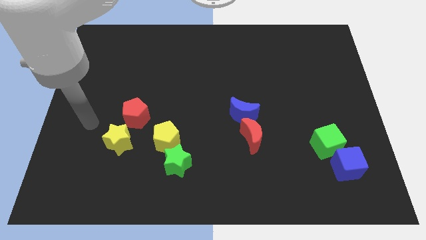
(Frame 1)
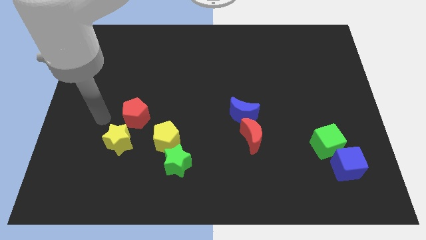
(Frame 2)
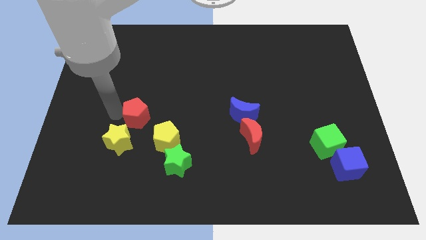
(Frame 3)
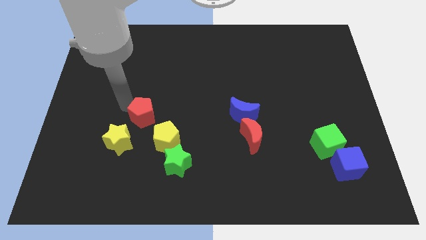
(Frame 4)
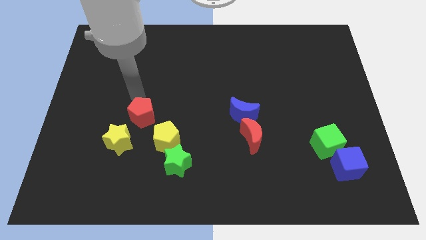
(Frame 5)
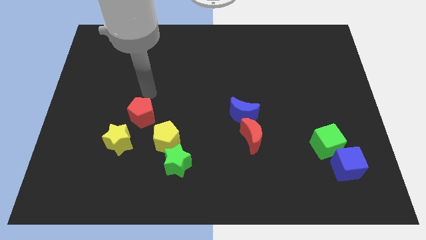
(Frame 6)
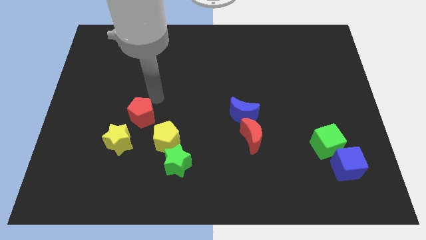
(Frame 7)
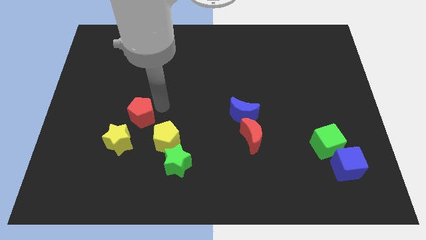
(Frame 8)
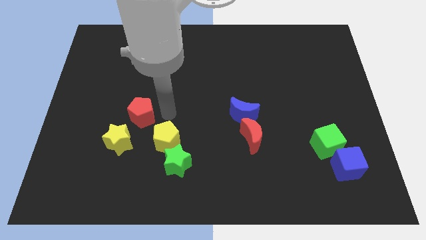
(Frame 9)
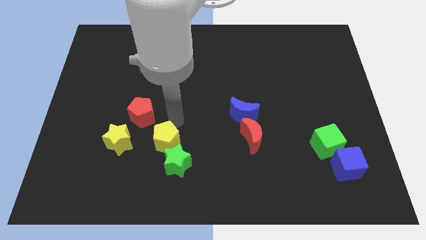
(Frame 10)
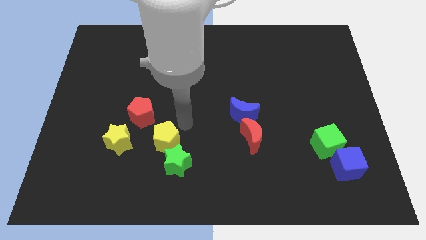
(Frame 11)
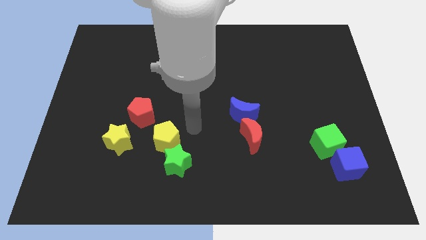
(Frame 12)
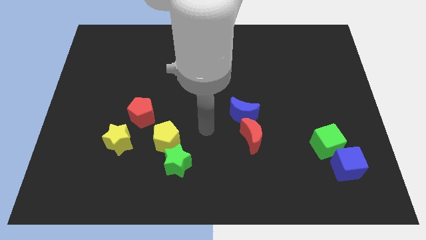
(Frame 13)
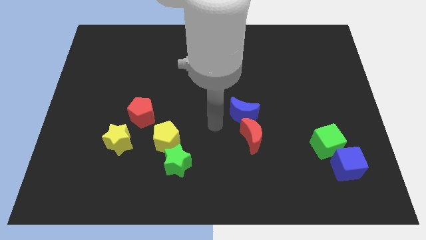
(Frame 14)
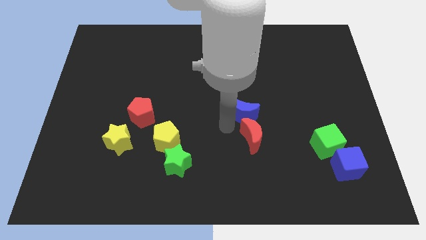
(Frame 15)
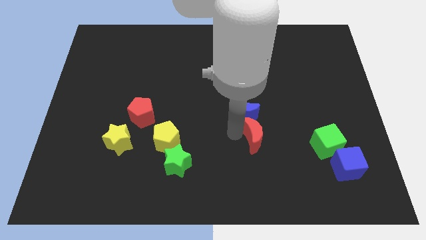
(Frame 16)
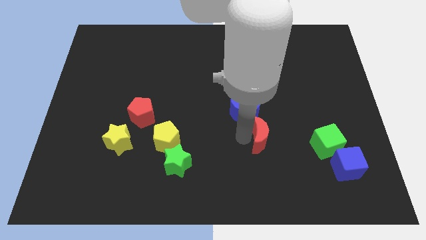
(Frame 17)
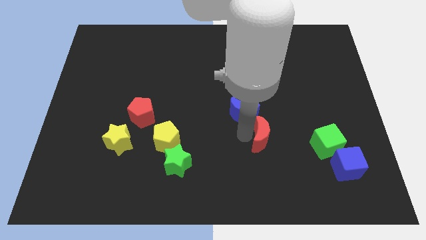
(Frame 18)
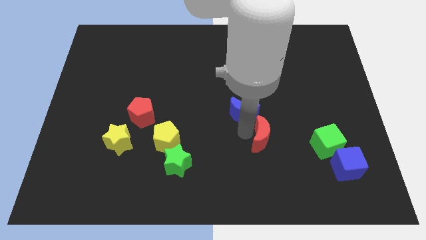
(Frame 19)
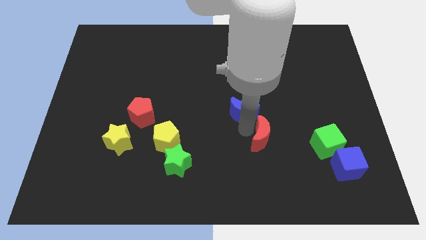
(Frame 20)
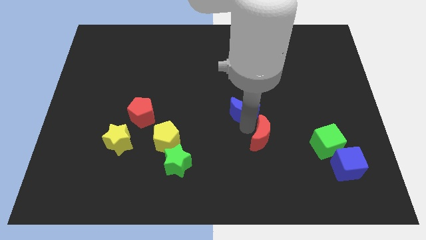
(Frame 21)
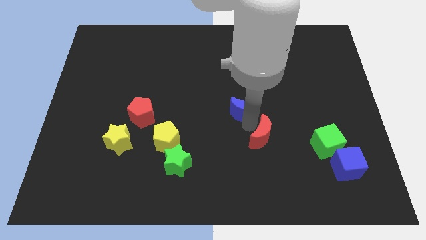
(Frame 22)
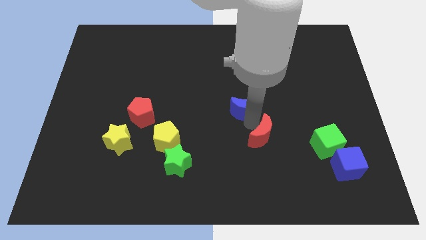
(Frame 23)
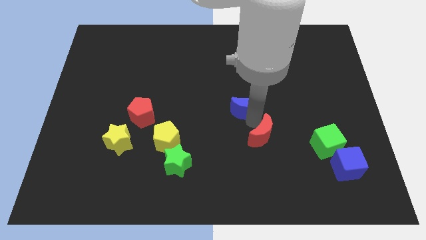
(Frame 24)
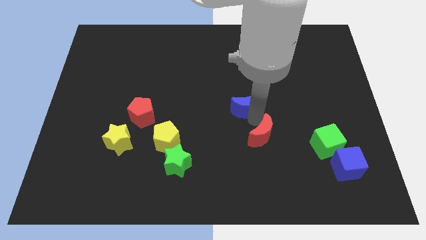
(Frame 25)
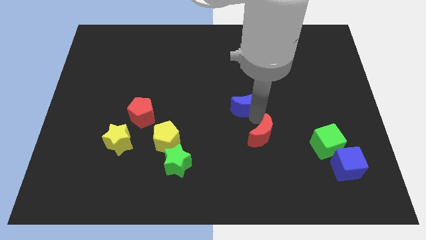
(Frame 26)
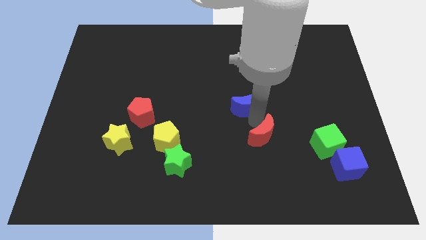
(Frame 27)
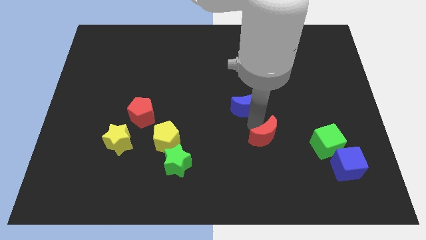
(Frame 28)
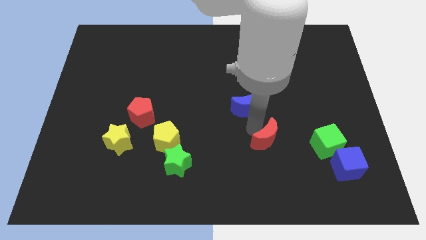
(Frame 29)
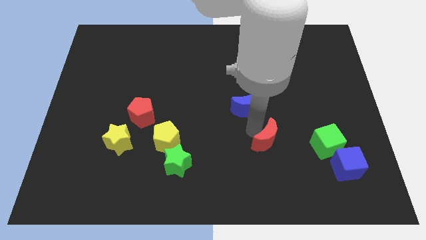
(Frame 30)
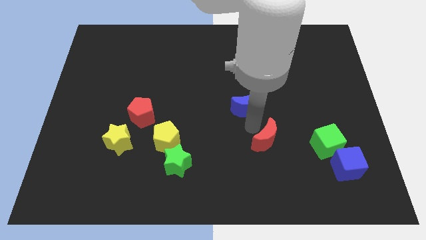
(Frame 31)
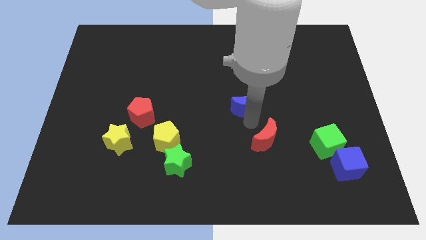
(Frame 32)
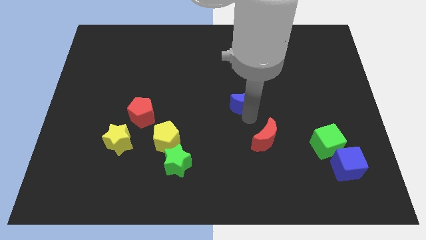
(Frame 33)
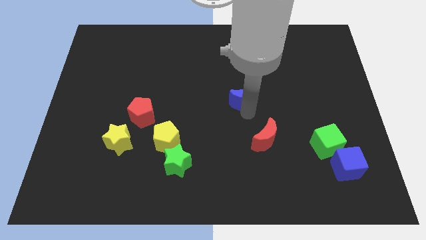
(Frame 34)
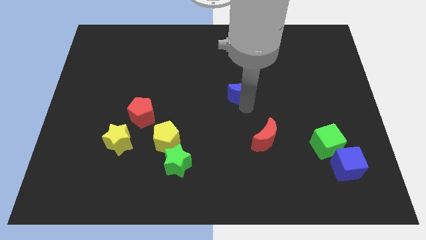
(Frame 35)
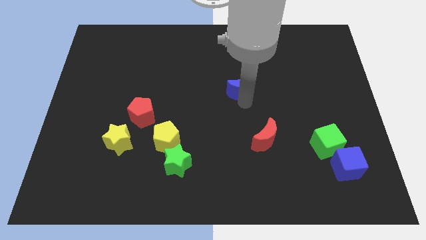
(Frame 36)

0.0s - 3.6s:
move the blue moon a little upwards

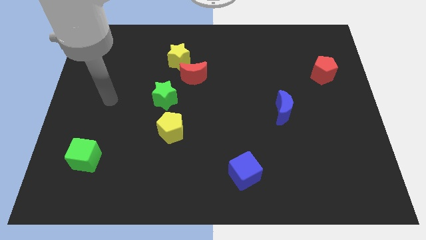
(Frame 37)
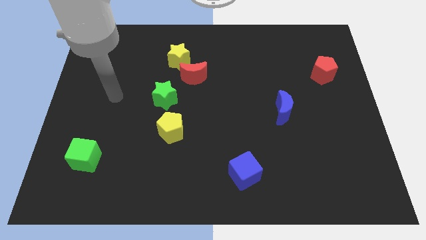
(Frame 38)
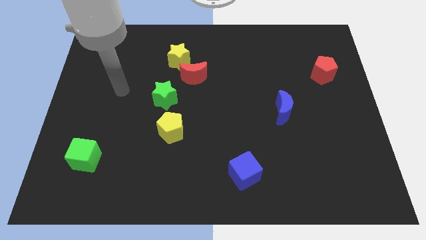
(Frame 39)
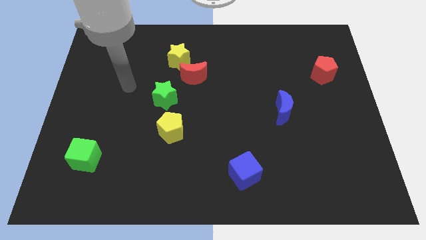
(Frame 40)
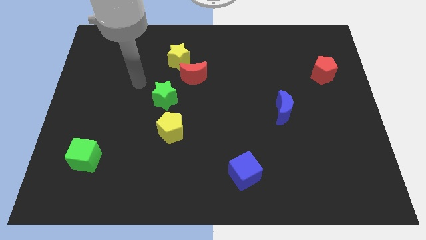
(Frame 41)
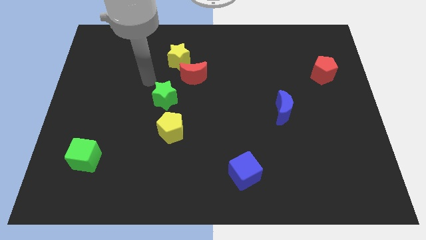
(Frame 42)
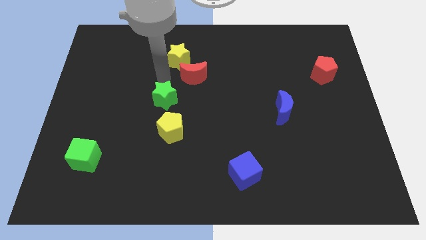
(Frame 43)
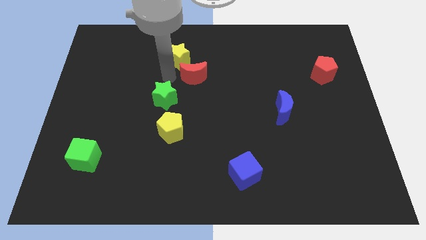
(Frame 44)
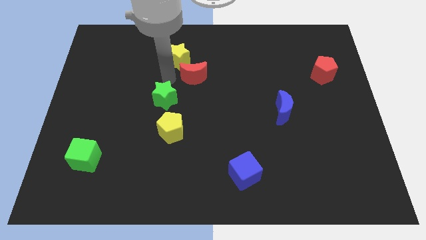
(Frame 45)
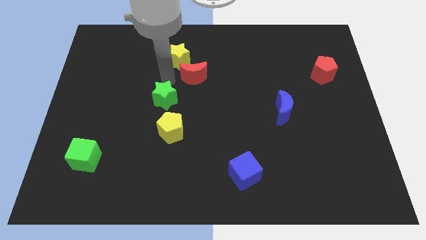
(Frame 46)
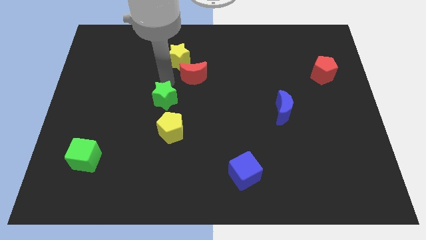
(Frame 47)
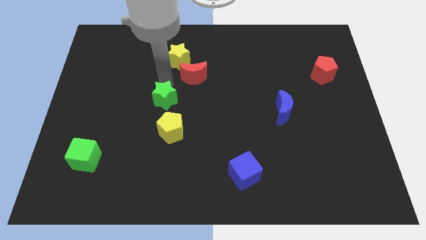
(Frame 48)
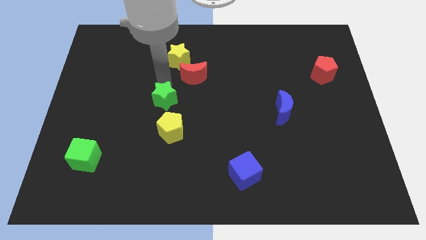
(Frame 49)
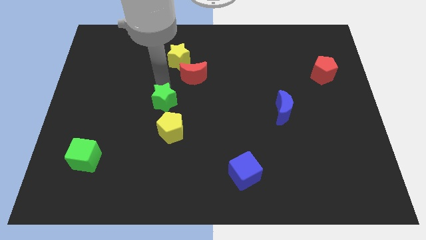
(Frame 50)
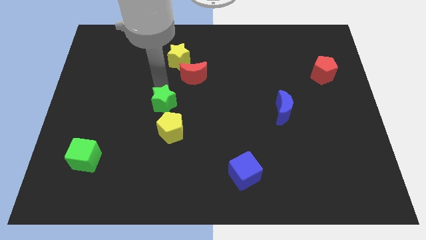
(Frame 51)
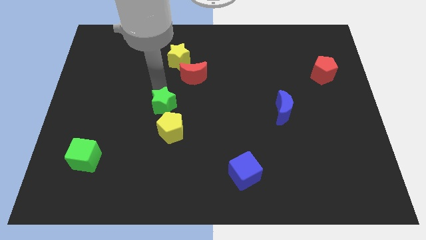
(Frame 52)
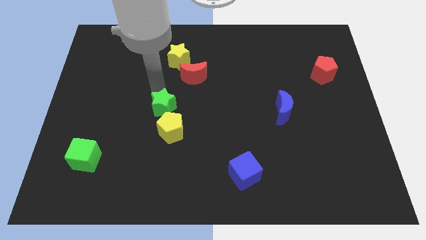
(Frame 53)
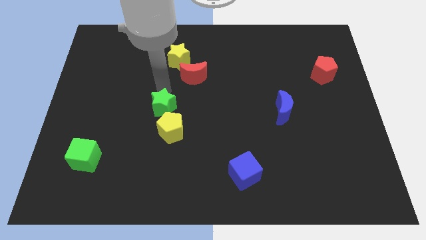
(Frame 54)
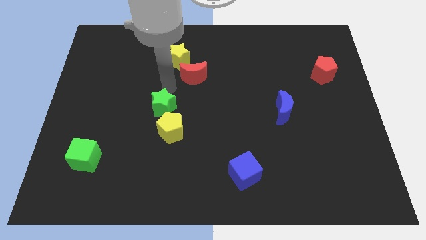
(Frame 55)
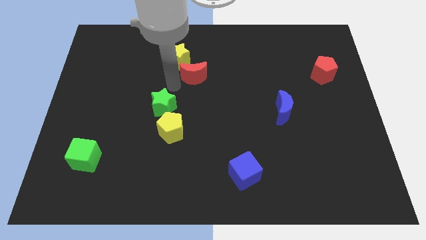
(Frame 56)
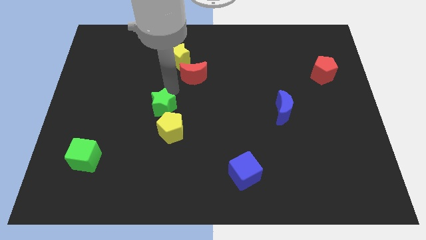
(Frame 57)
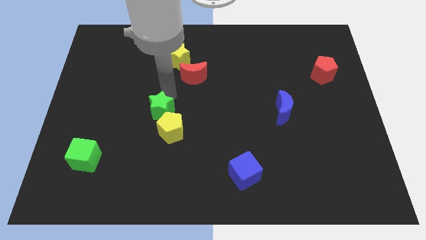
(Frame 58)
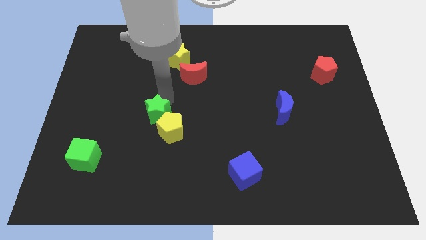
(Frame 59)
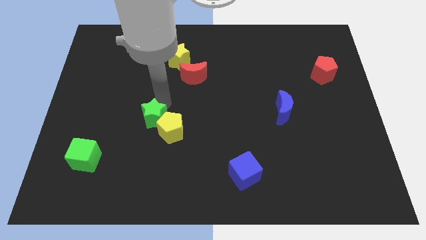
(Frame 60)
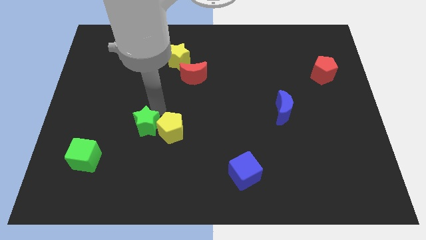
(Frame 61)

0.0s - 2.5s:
push the green star downwards a bit

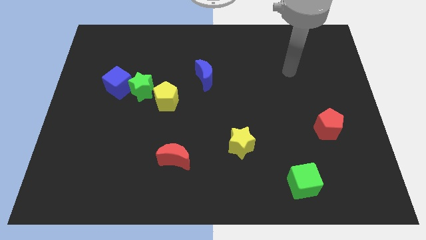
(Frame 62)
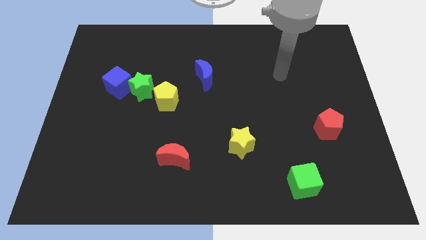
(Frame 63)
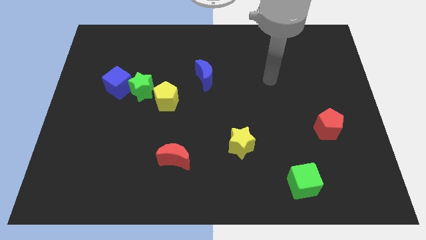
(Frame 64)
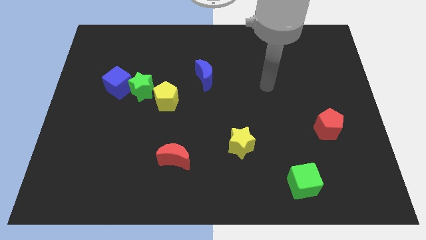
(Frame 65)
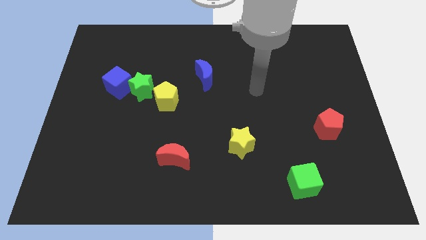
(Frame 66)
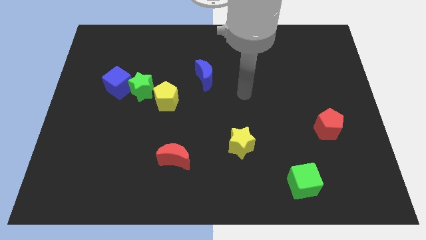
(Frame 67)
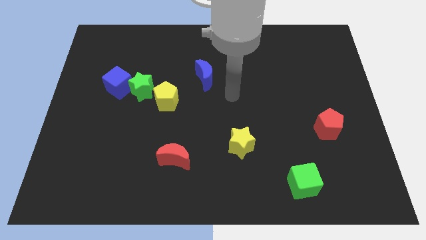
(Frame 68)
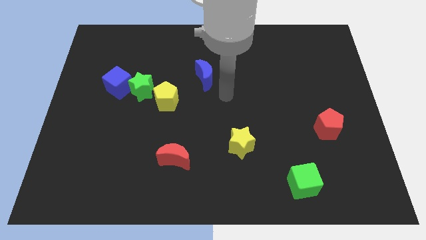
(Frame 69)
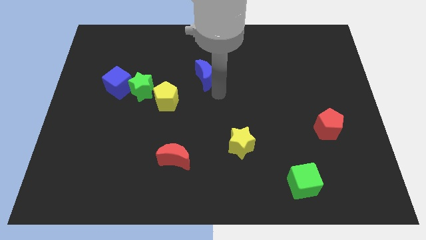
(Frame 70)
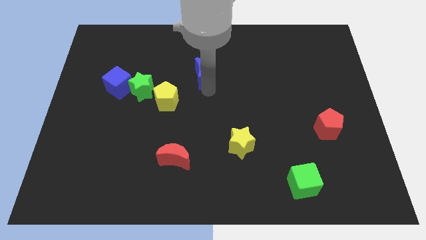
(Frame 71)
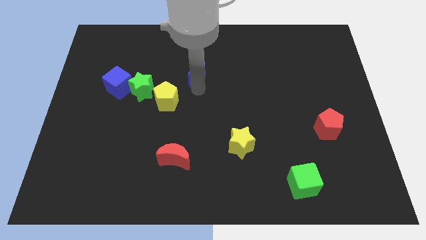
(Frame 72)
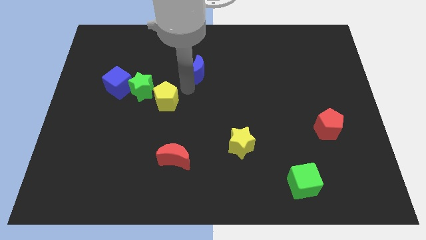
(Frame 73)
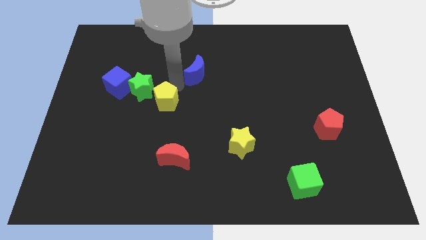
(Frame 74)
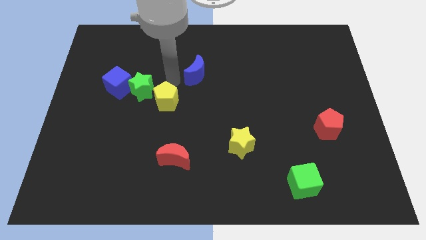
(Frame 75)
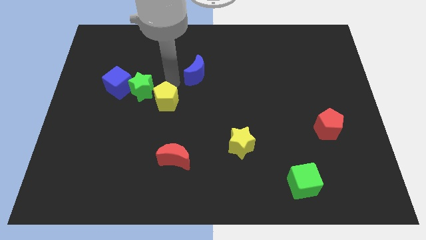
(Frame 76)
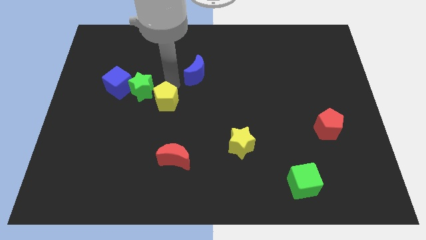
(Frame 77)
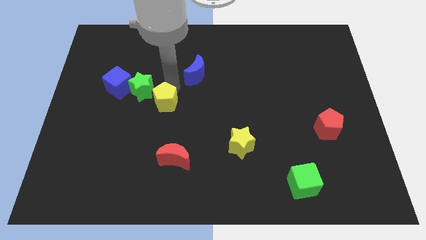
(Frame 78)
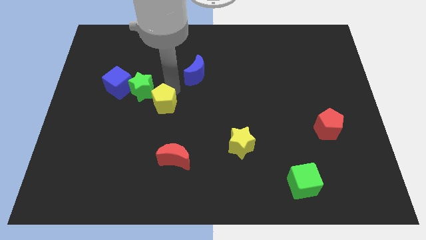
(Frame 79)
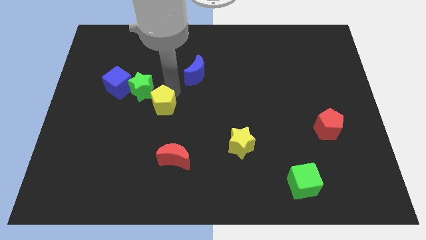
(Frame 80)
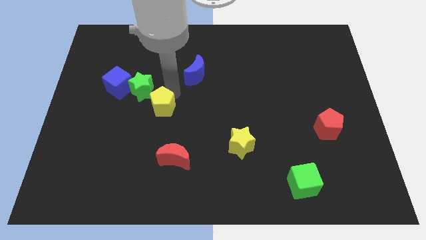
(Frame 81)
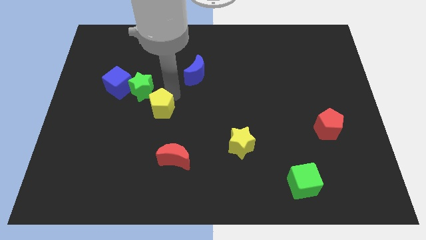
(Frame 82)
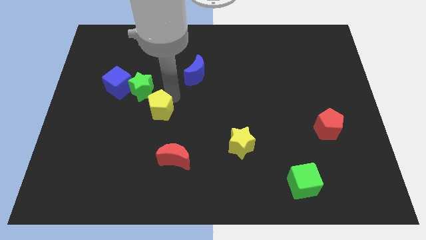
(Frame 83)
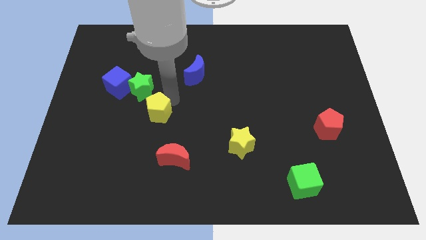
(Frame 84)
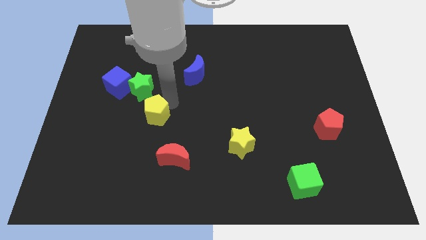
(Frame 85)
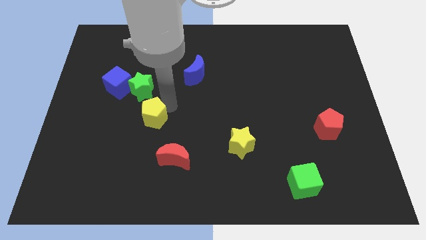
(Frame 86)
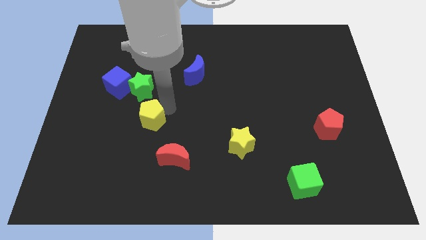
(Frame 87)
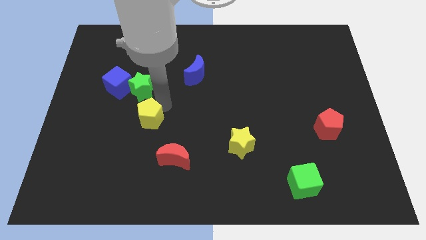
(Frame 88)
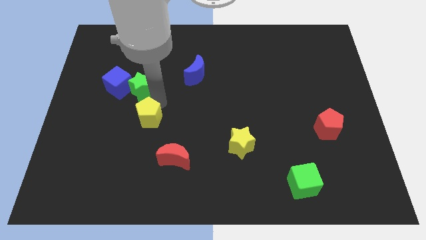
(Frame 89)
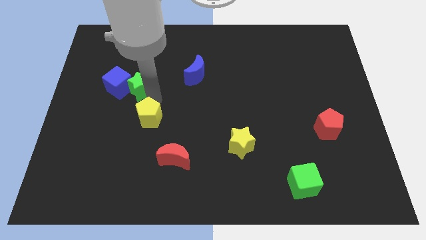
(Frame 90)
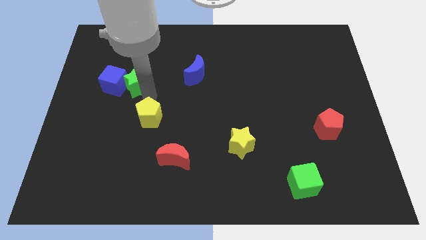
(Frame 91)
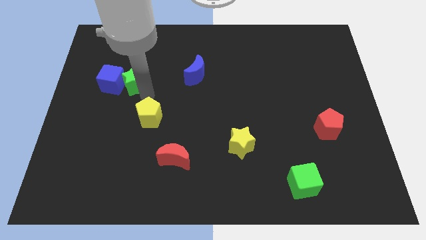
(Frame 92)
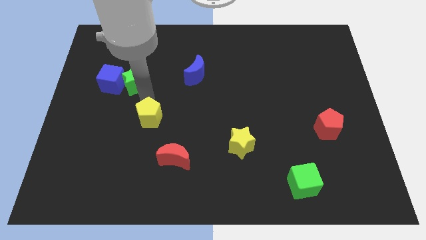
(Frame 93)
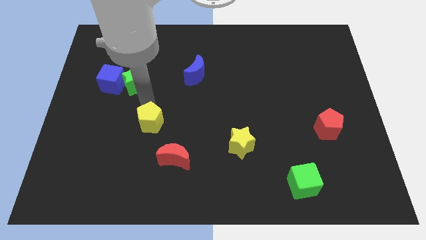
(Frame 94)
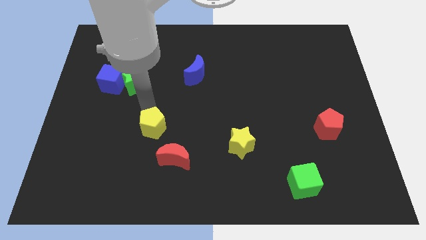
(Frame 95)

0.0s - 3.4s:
slightly slide the yellow pentagon downwards
